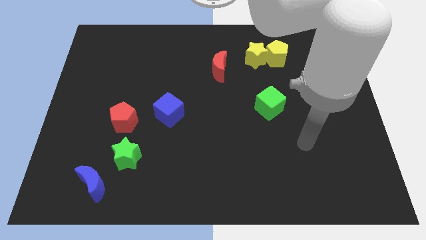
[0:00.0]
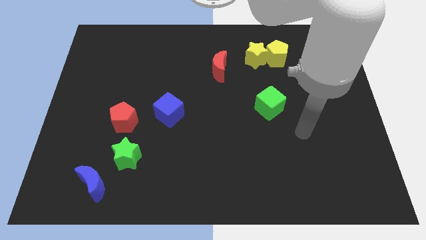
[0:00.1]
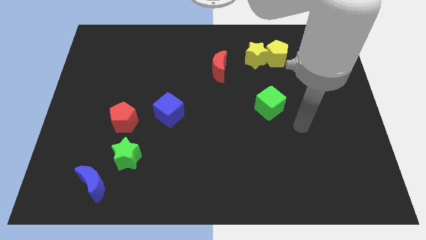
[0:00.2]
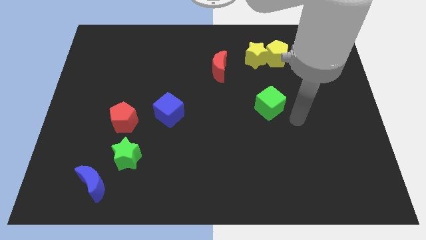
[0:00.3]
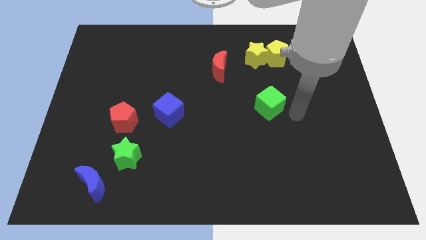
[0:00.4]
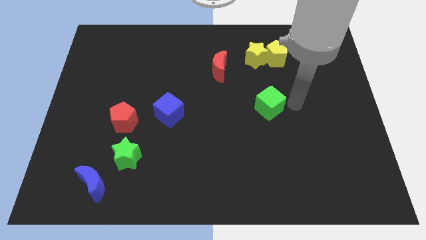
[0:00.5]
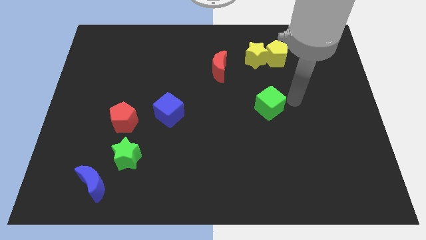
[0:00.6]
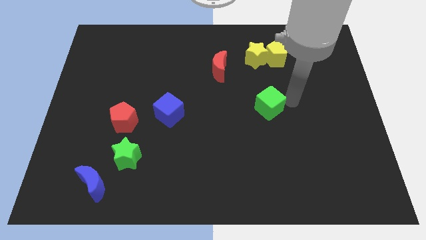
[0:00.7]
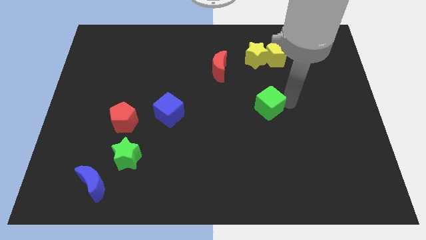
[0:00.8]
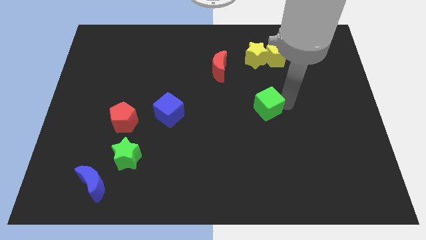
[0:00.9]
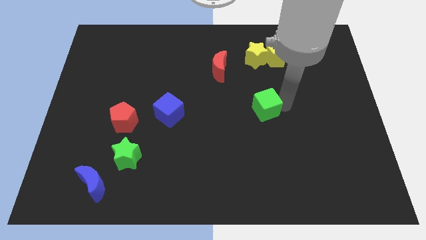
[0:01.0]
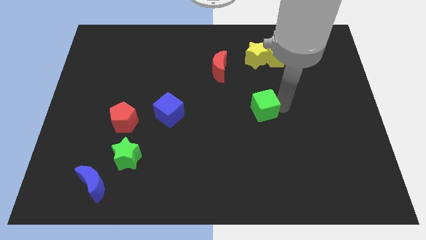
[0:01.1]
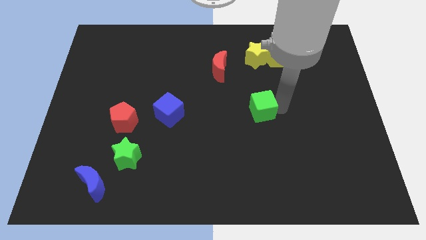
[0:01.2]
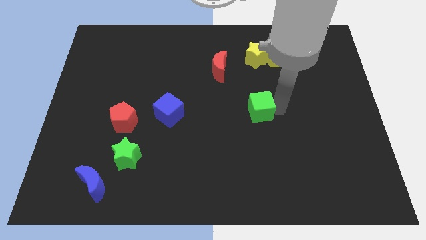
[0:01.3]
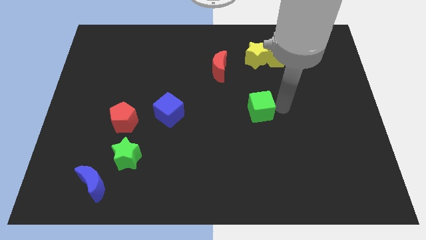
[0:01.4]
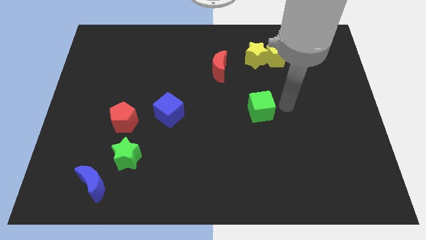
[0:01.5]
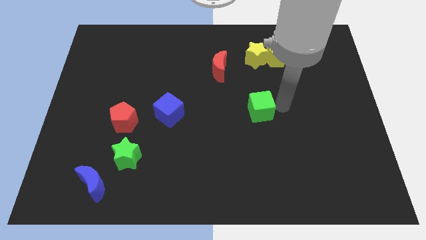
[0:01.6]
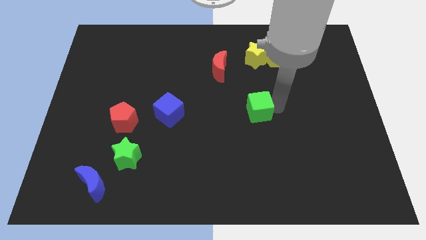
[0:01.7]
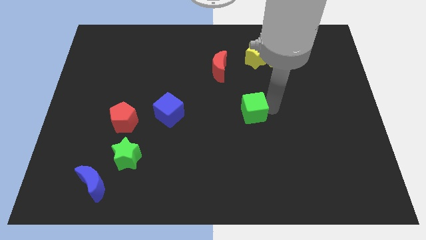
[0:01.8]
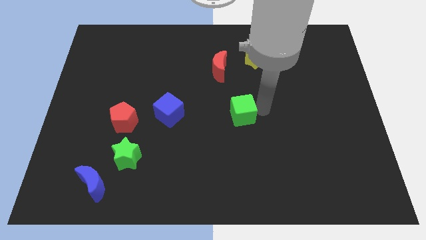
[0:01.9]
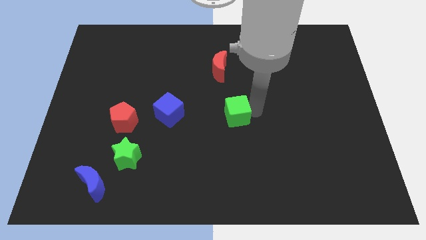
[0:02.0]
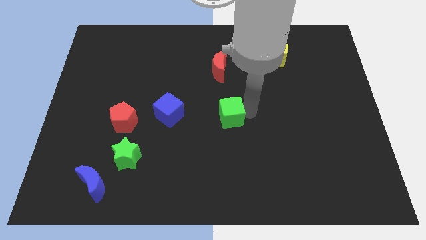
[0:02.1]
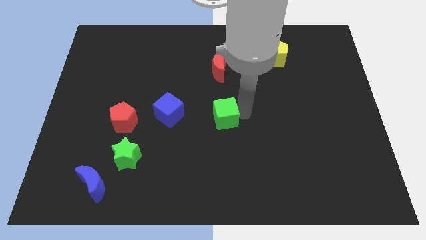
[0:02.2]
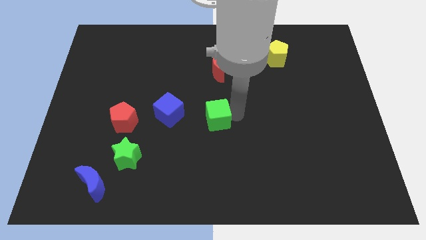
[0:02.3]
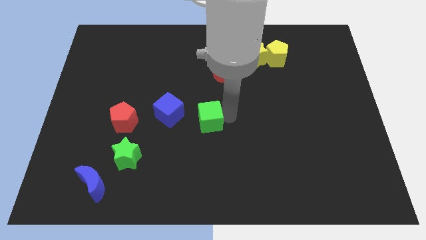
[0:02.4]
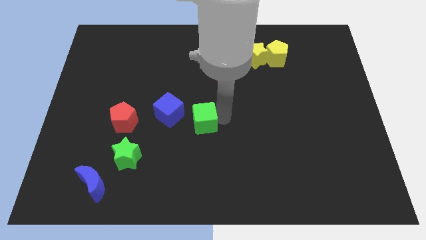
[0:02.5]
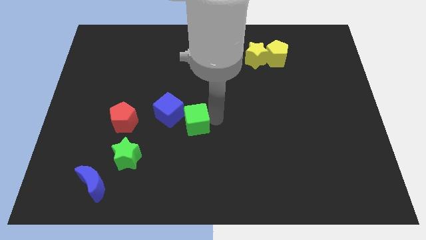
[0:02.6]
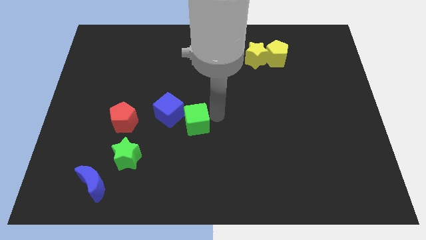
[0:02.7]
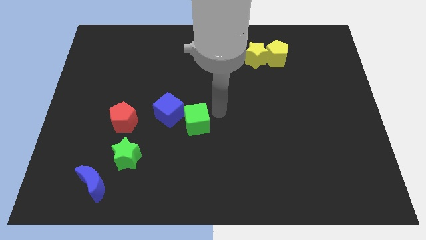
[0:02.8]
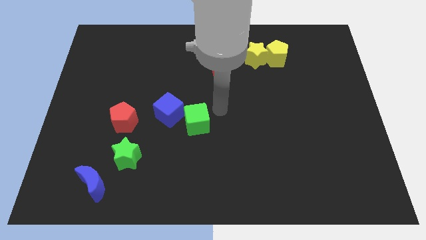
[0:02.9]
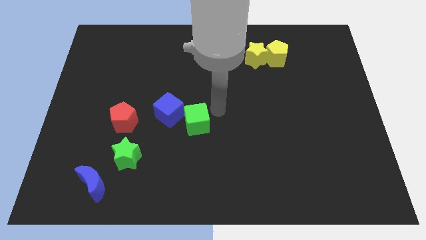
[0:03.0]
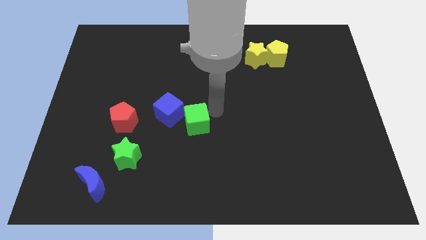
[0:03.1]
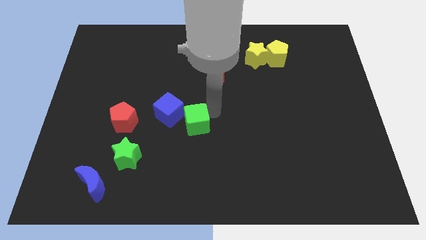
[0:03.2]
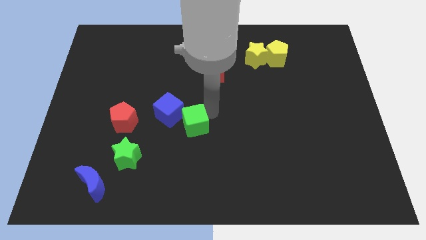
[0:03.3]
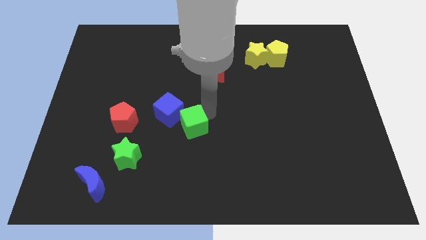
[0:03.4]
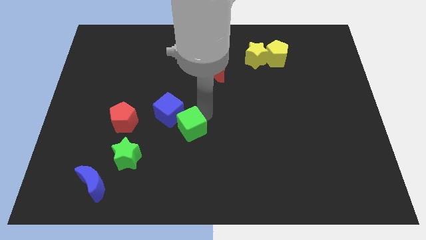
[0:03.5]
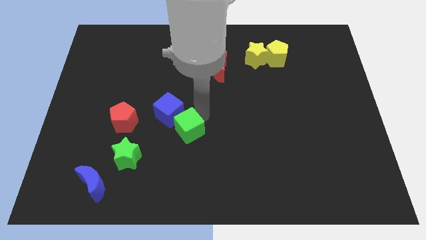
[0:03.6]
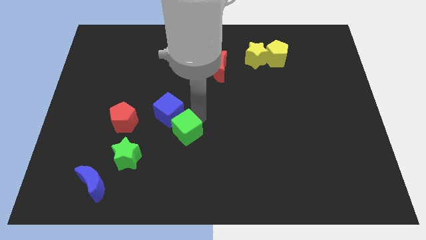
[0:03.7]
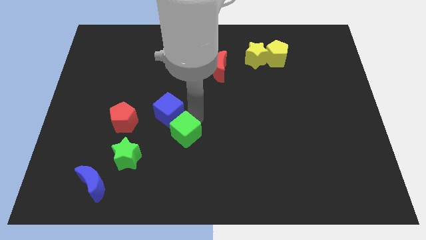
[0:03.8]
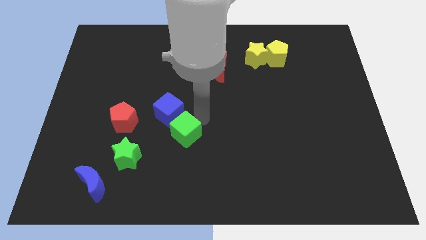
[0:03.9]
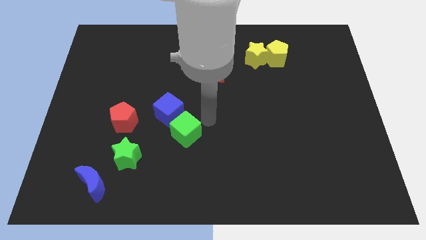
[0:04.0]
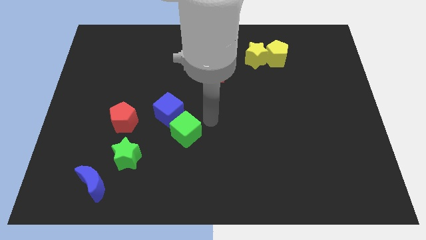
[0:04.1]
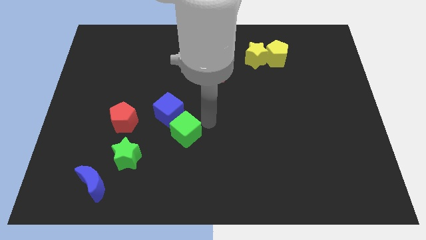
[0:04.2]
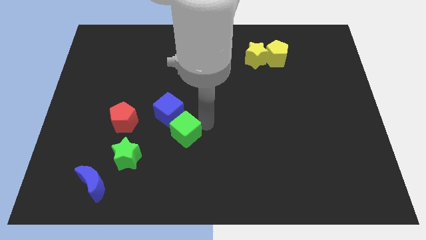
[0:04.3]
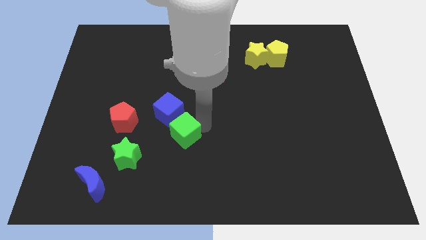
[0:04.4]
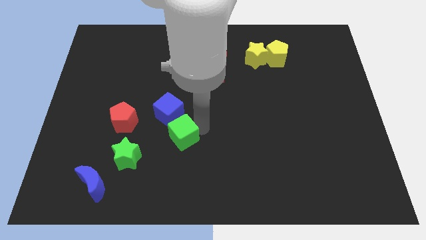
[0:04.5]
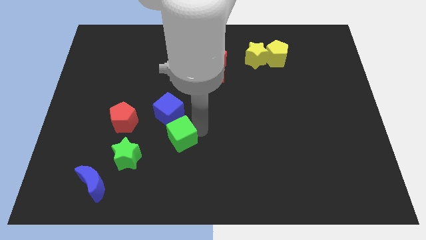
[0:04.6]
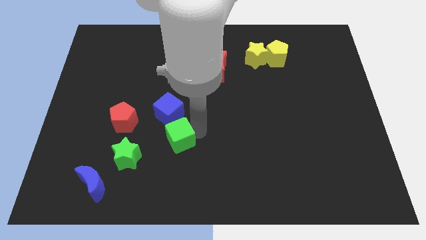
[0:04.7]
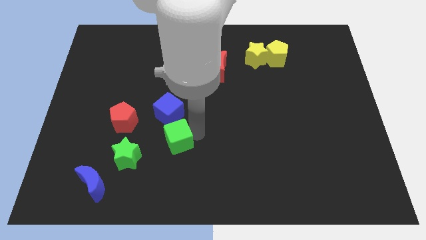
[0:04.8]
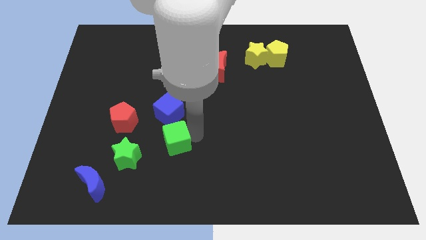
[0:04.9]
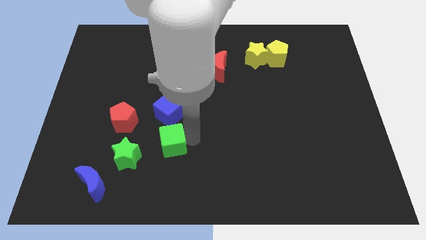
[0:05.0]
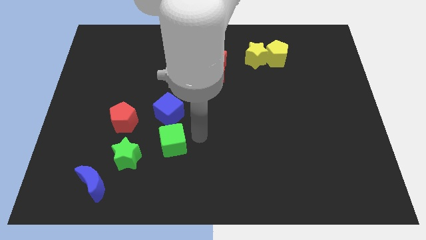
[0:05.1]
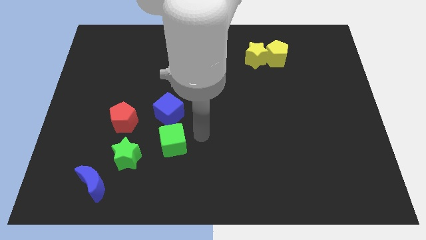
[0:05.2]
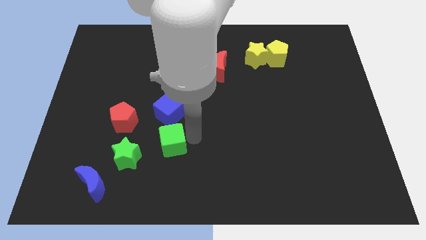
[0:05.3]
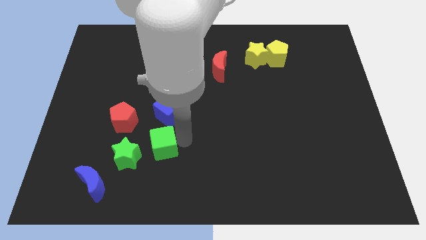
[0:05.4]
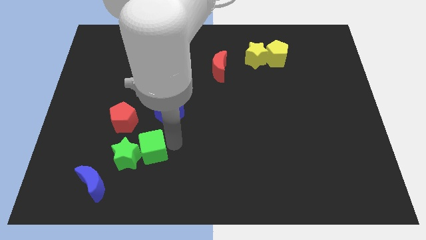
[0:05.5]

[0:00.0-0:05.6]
put the green cube towards the green star

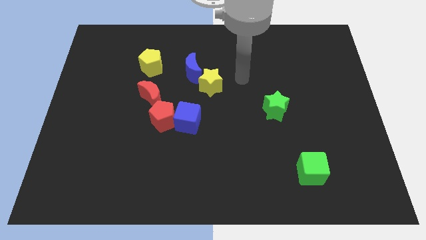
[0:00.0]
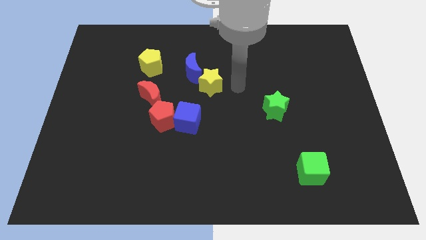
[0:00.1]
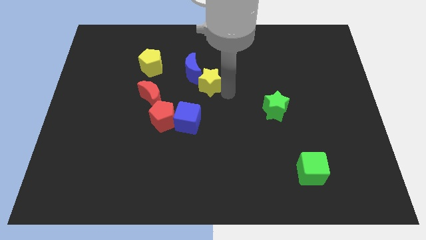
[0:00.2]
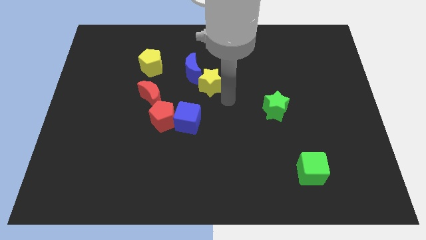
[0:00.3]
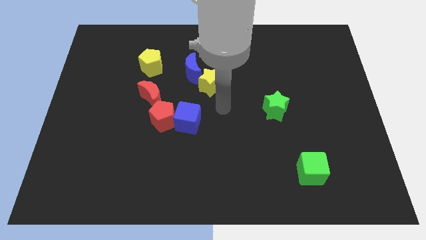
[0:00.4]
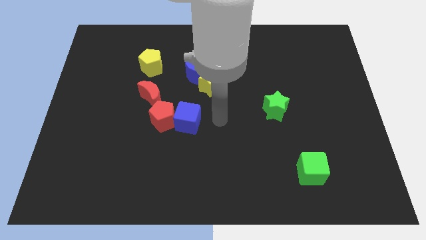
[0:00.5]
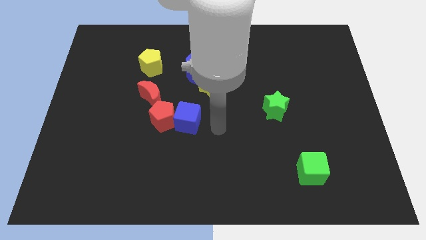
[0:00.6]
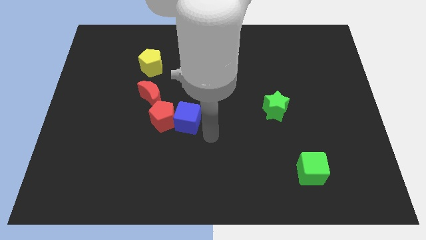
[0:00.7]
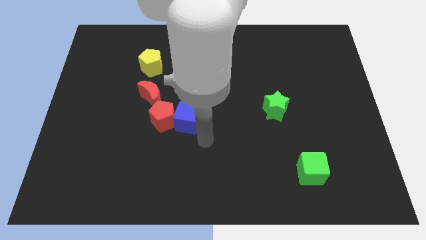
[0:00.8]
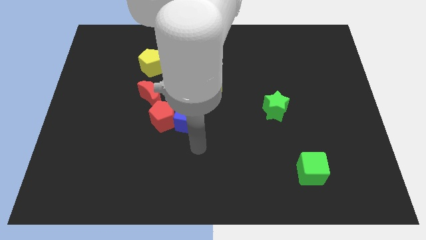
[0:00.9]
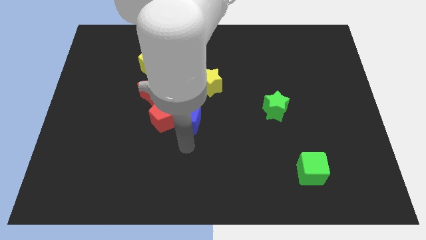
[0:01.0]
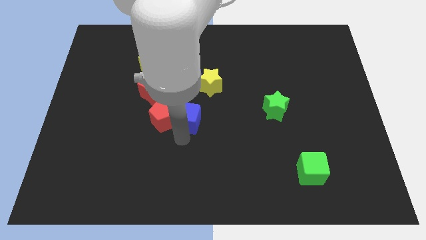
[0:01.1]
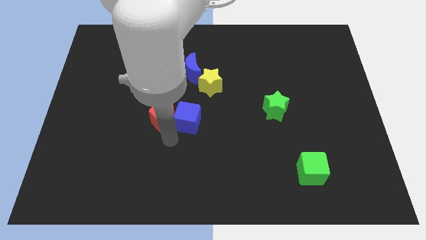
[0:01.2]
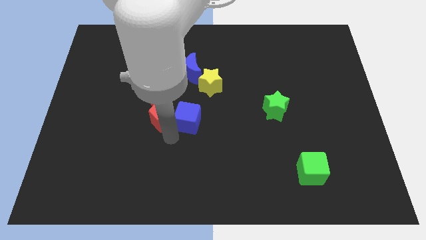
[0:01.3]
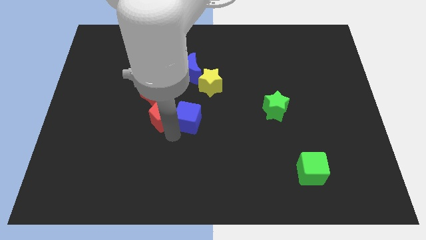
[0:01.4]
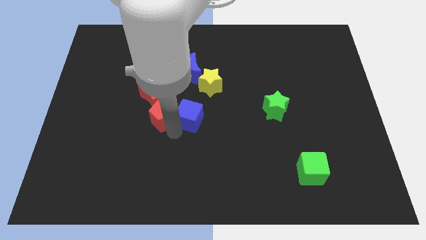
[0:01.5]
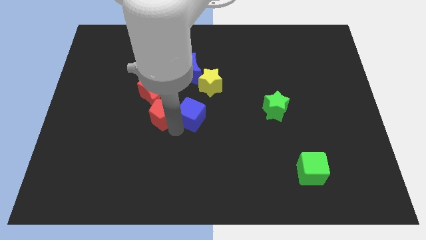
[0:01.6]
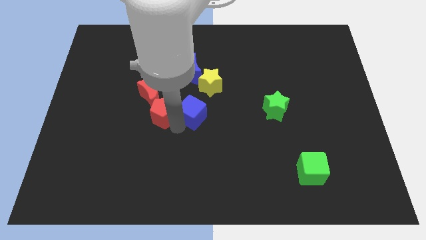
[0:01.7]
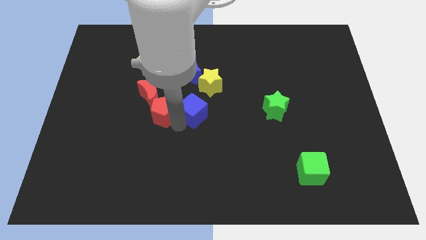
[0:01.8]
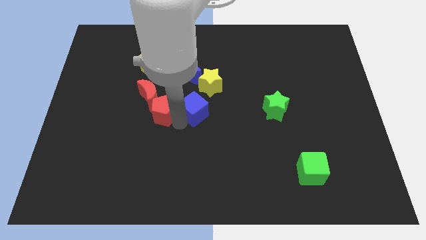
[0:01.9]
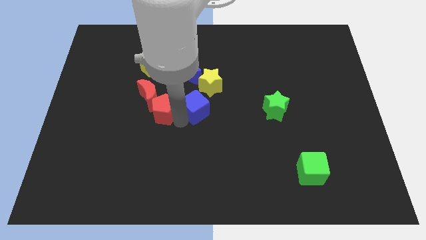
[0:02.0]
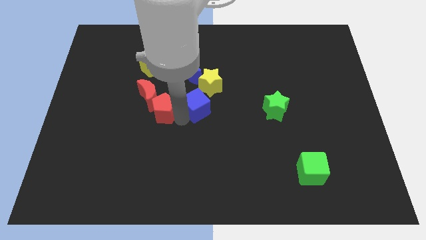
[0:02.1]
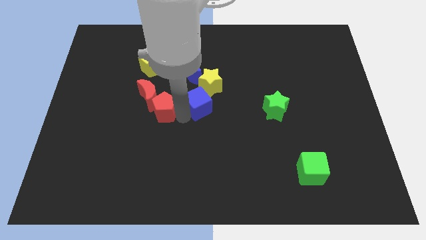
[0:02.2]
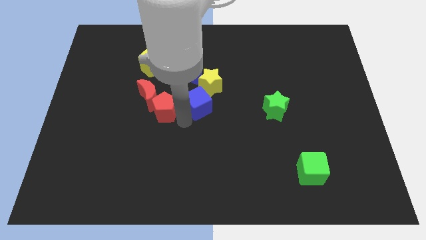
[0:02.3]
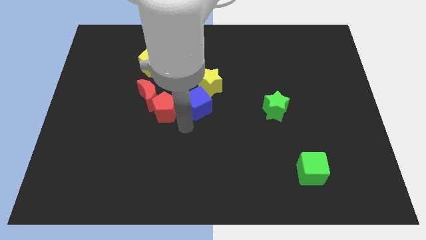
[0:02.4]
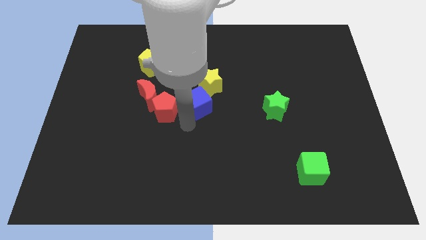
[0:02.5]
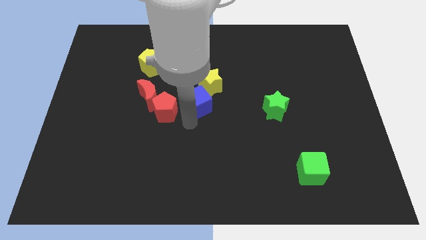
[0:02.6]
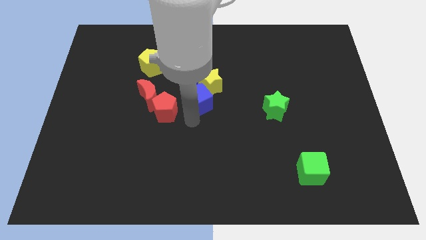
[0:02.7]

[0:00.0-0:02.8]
put the blue cube to the yellow star
